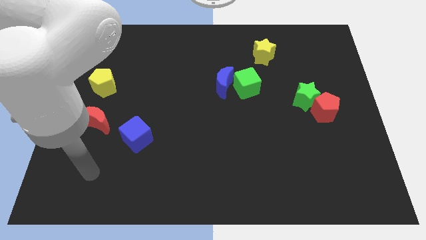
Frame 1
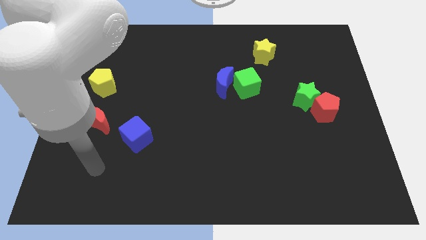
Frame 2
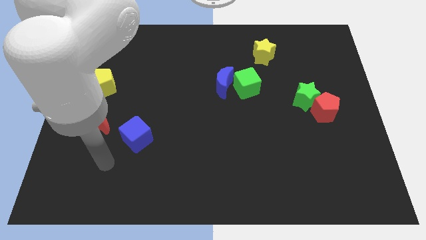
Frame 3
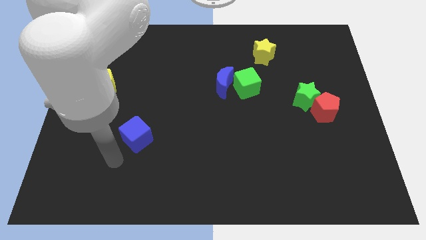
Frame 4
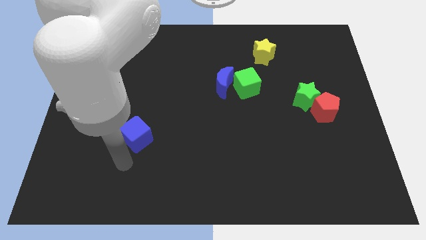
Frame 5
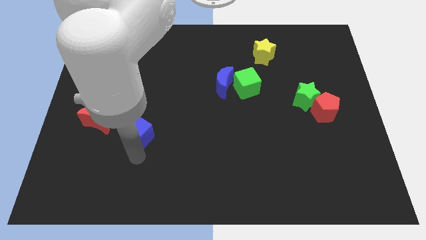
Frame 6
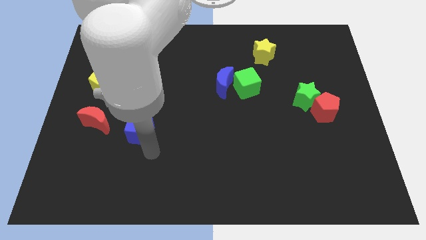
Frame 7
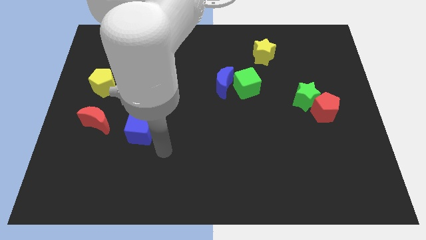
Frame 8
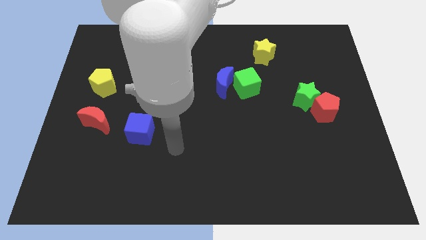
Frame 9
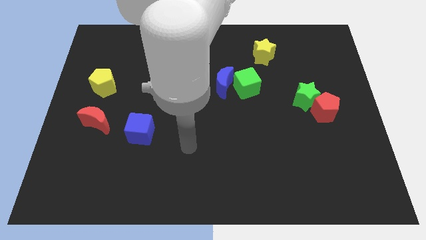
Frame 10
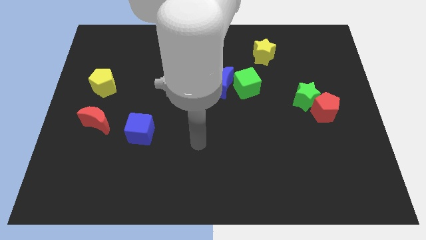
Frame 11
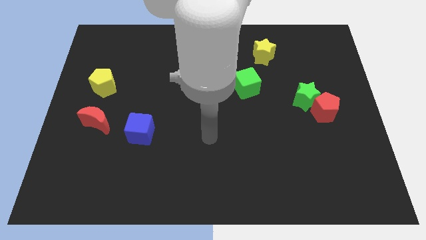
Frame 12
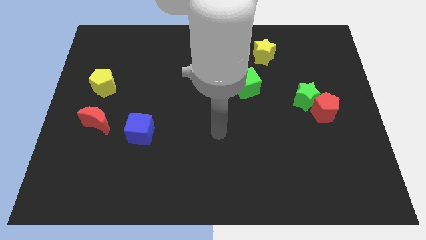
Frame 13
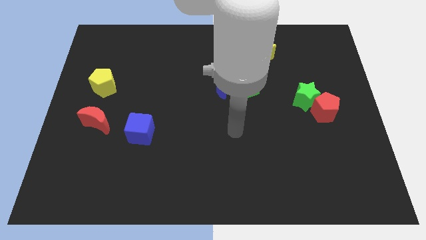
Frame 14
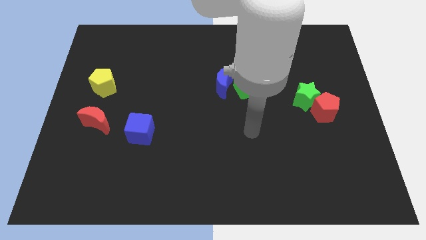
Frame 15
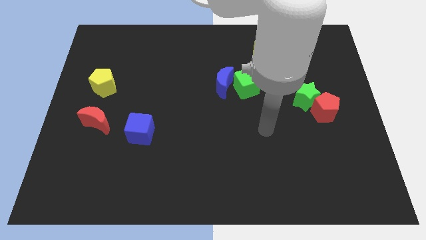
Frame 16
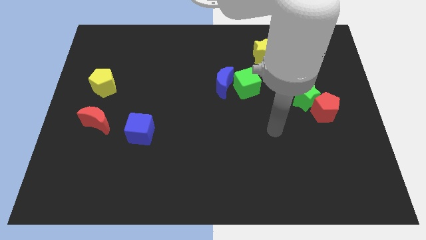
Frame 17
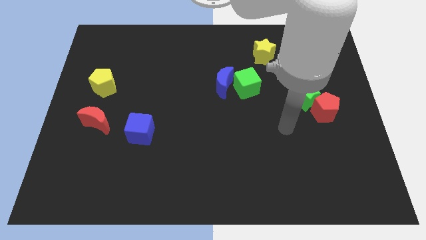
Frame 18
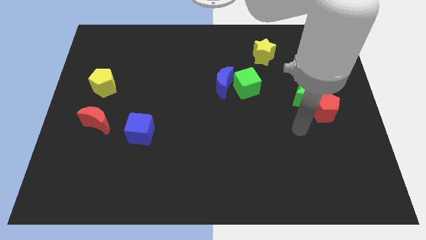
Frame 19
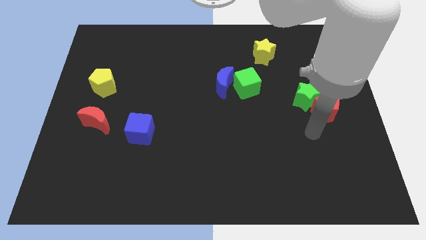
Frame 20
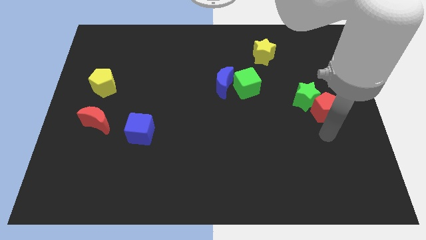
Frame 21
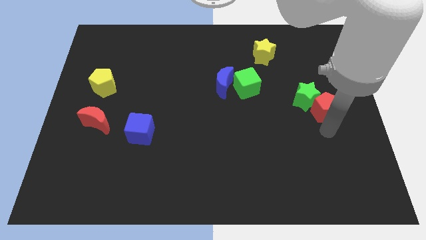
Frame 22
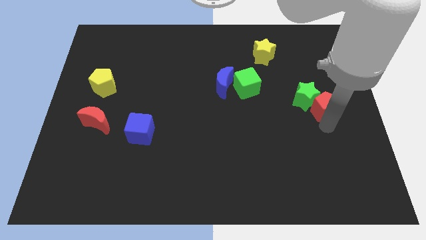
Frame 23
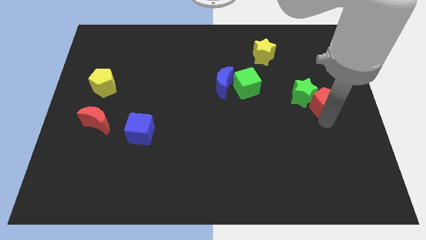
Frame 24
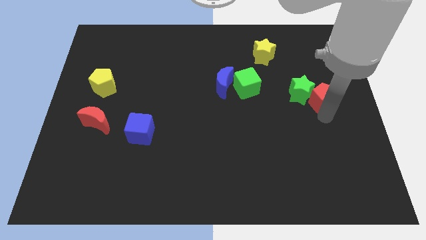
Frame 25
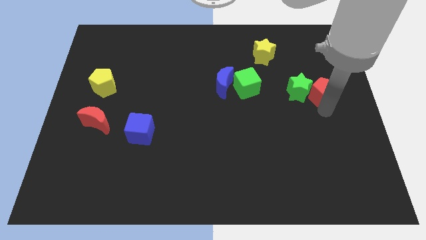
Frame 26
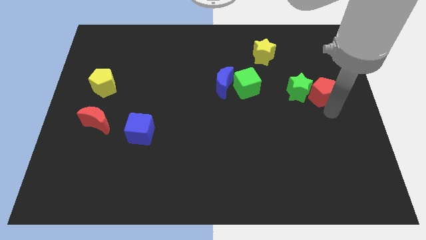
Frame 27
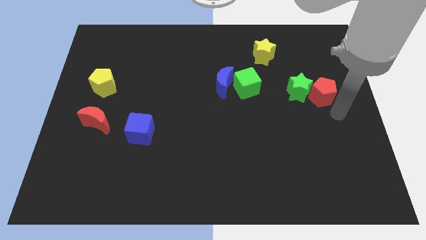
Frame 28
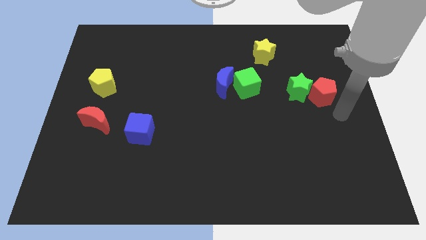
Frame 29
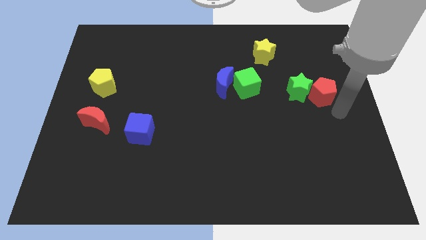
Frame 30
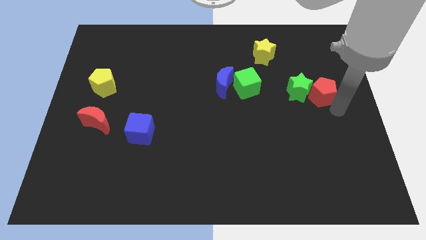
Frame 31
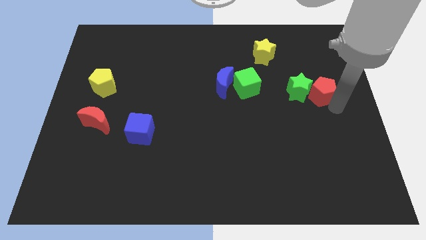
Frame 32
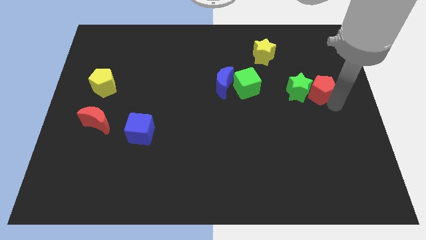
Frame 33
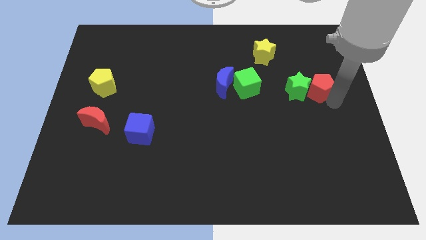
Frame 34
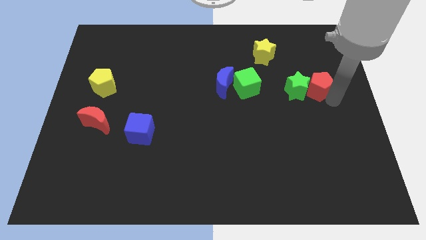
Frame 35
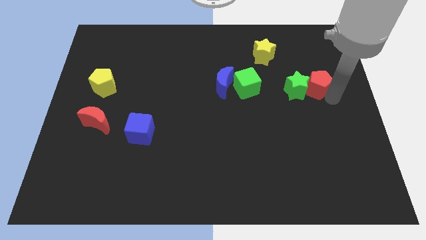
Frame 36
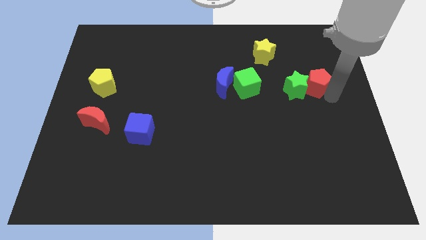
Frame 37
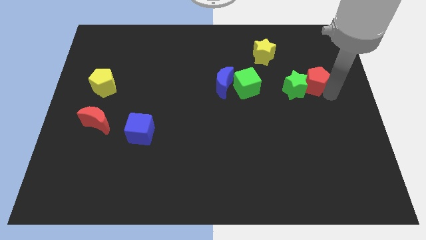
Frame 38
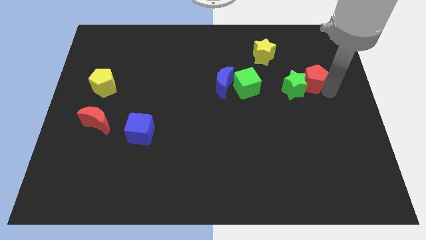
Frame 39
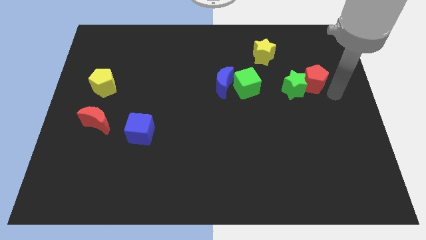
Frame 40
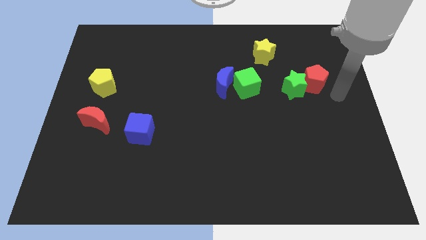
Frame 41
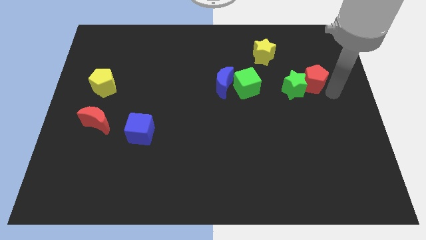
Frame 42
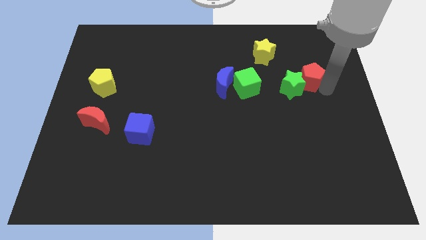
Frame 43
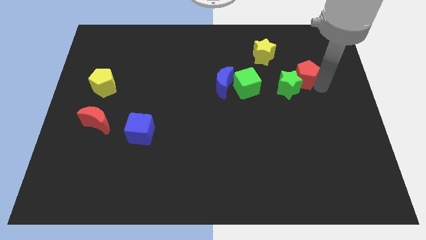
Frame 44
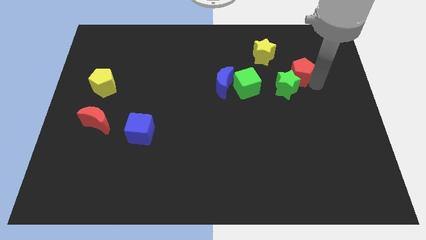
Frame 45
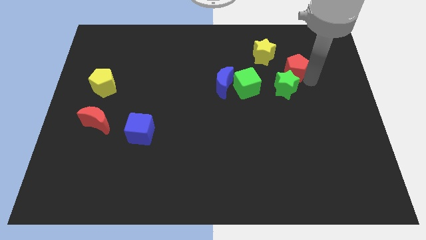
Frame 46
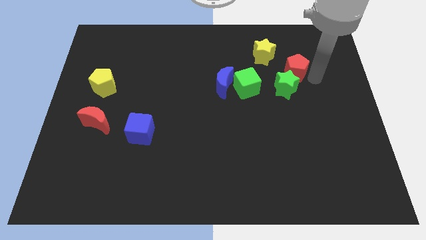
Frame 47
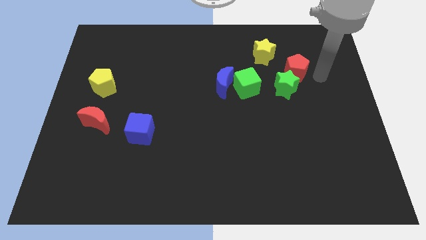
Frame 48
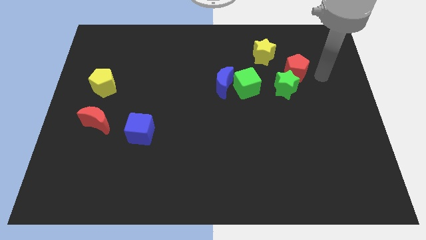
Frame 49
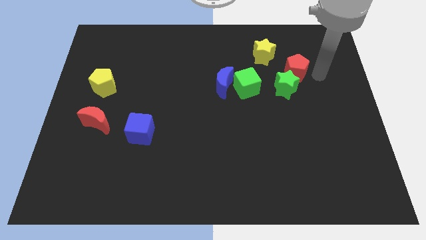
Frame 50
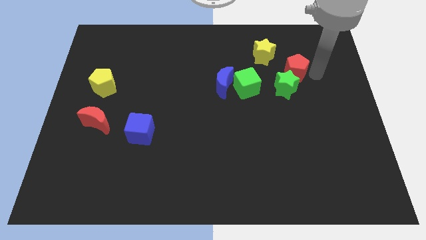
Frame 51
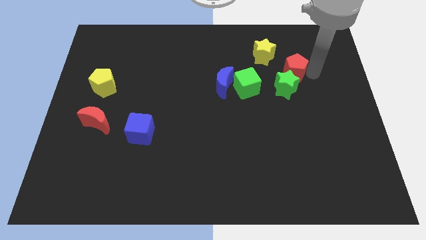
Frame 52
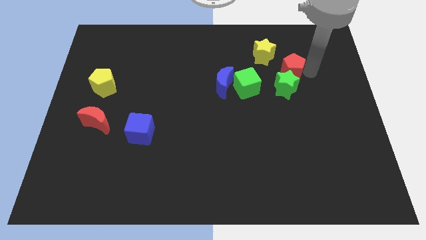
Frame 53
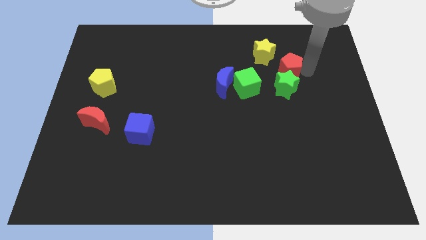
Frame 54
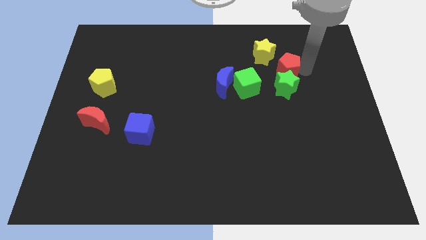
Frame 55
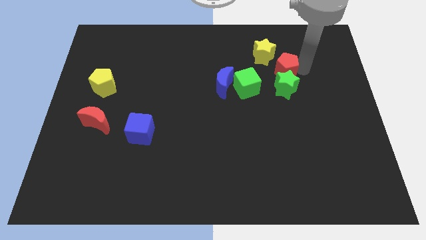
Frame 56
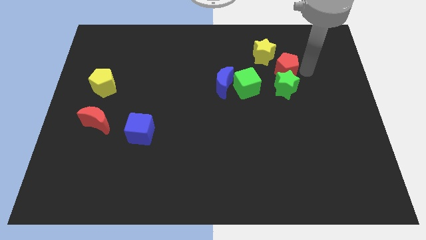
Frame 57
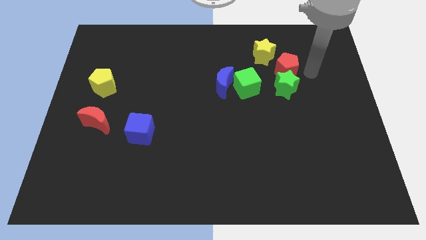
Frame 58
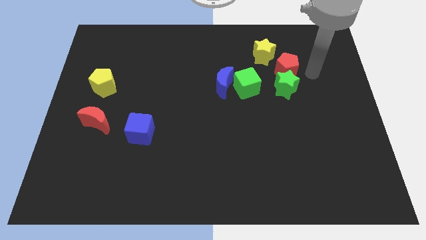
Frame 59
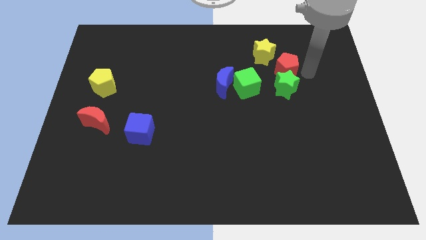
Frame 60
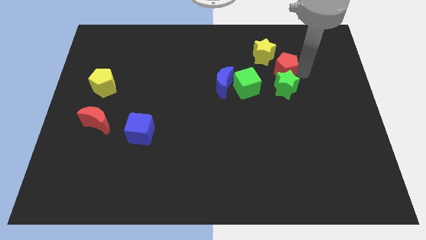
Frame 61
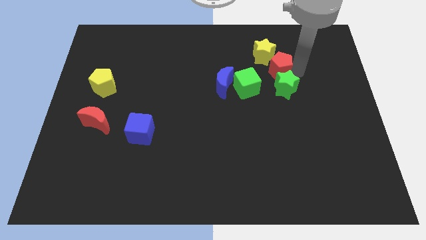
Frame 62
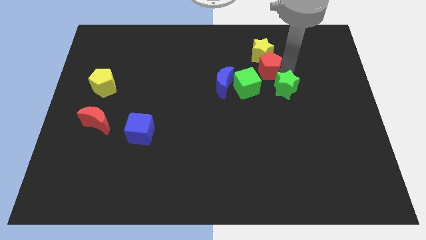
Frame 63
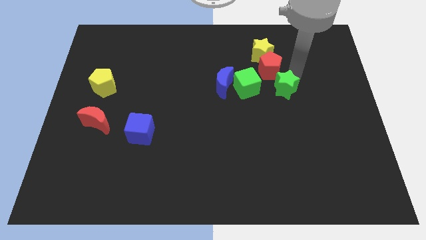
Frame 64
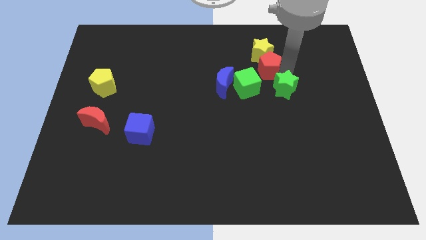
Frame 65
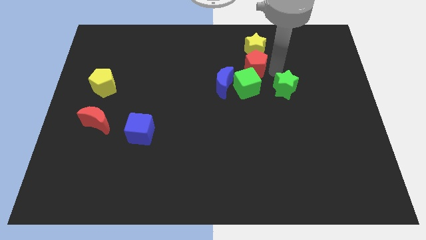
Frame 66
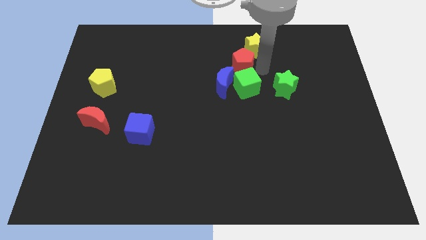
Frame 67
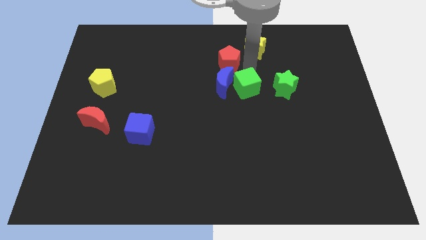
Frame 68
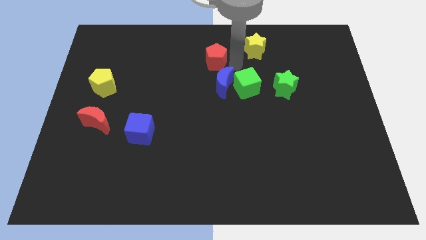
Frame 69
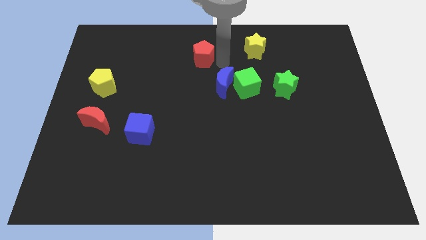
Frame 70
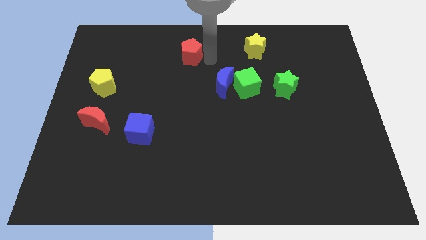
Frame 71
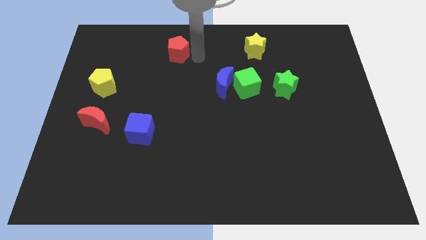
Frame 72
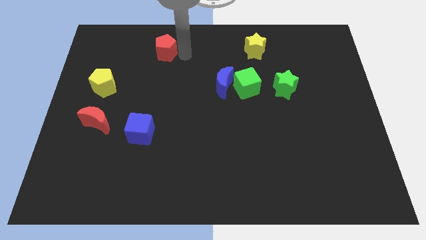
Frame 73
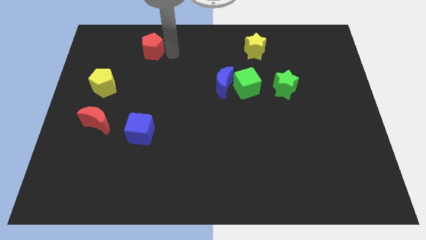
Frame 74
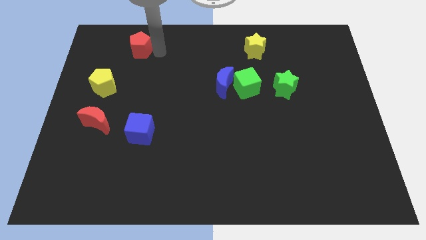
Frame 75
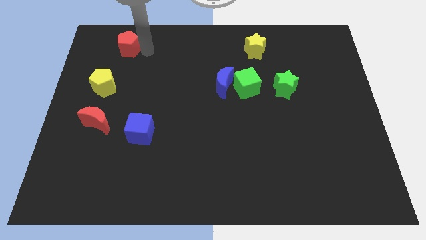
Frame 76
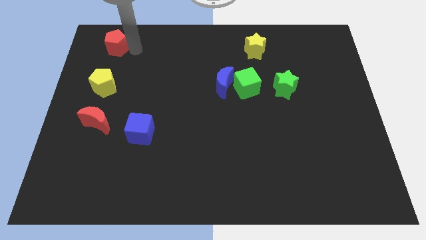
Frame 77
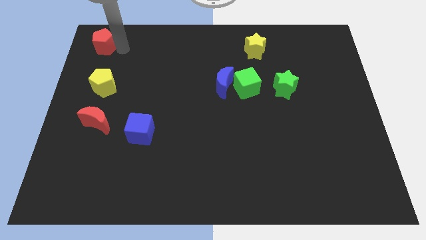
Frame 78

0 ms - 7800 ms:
slide the red pentagon to the upper left corner
